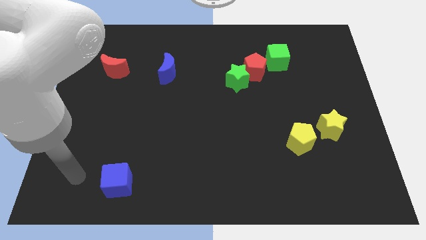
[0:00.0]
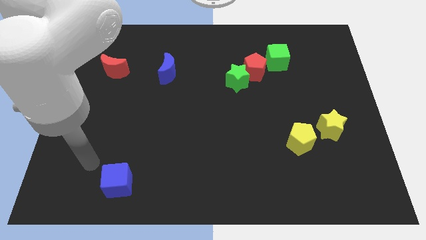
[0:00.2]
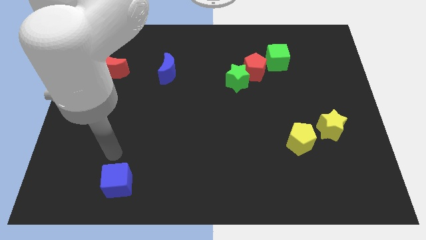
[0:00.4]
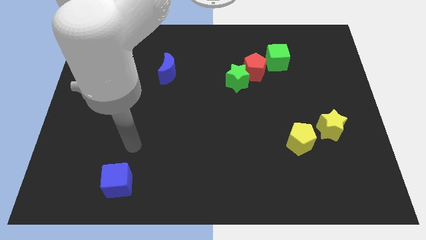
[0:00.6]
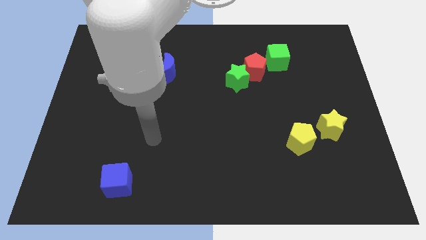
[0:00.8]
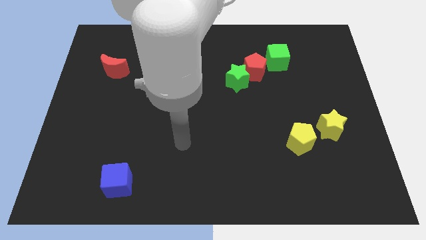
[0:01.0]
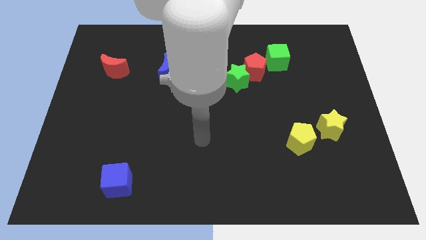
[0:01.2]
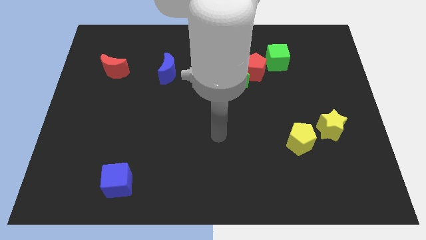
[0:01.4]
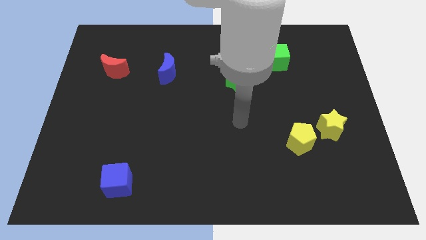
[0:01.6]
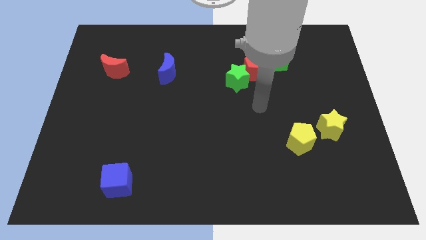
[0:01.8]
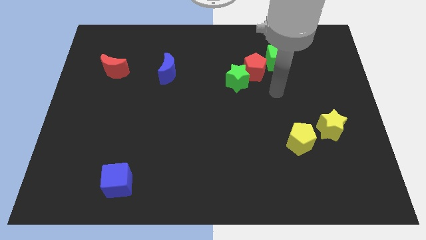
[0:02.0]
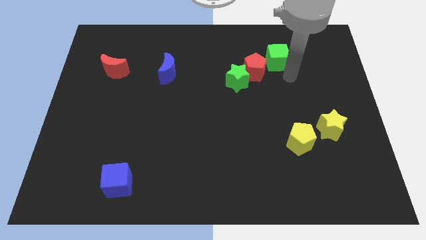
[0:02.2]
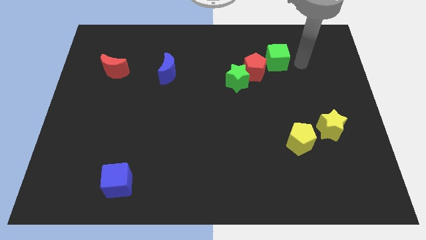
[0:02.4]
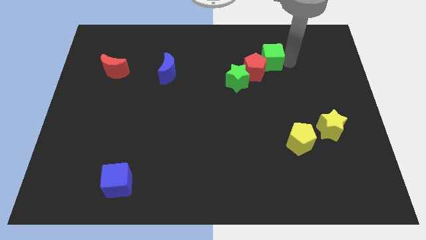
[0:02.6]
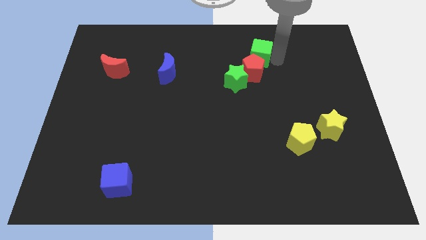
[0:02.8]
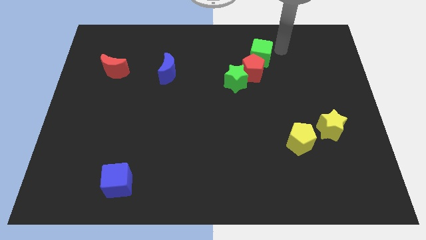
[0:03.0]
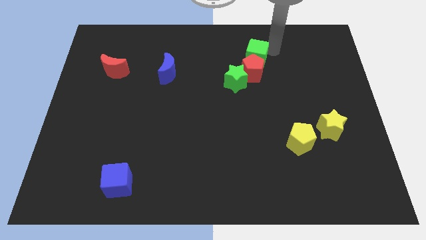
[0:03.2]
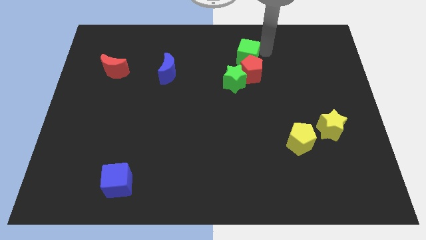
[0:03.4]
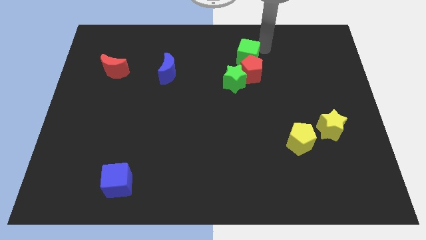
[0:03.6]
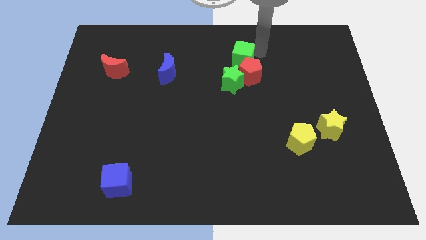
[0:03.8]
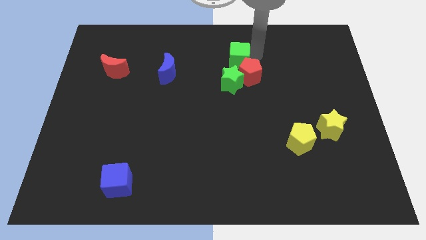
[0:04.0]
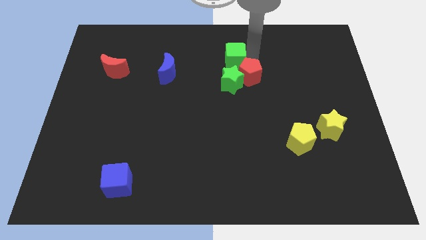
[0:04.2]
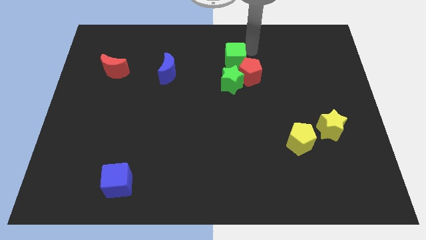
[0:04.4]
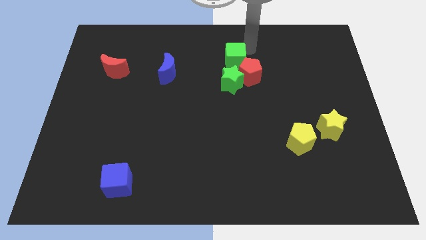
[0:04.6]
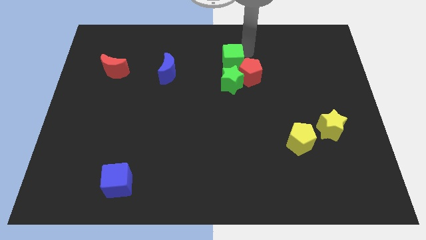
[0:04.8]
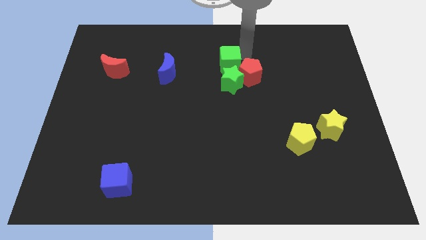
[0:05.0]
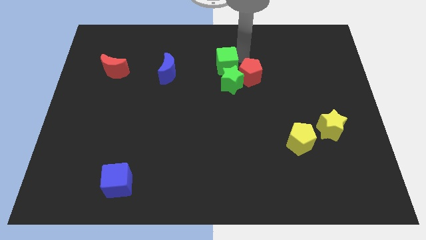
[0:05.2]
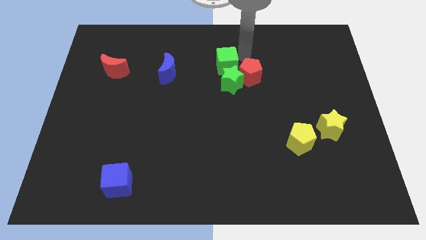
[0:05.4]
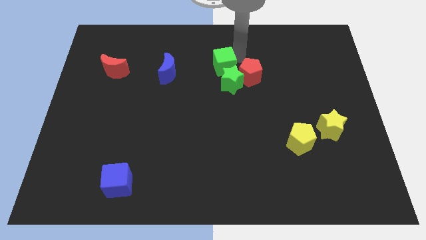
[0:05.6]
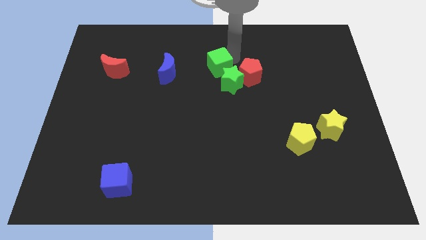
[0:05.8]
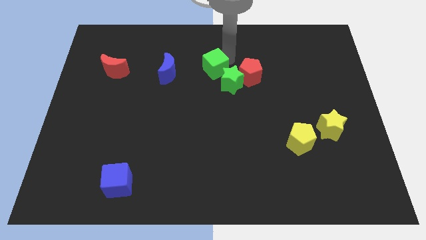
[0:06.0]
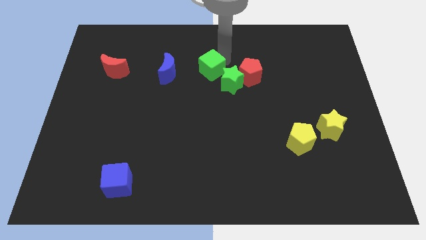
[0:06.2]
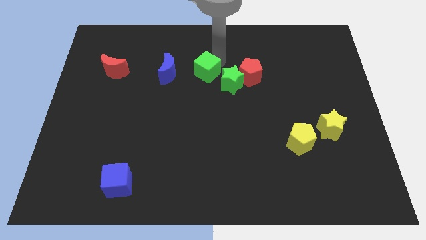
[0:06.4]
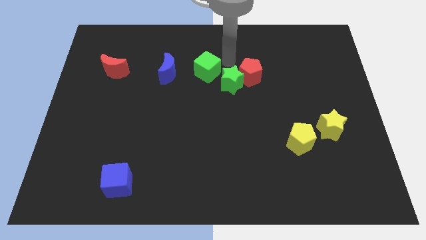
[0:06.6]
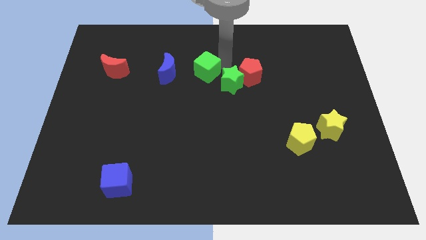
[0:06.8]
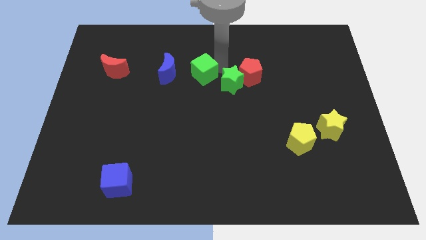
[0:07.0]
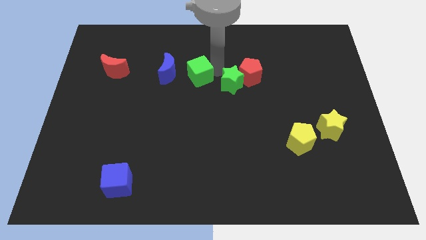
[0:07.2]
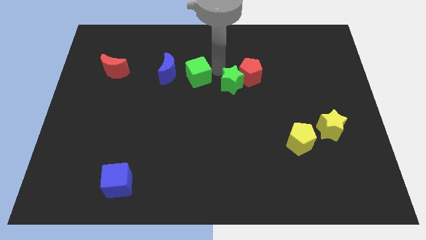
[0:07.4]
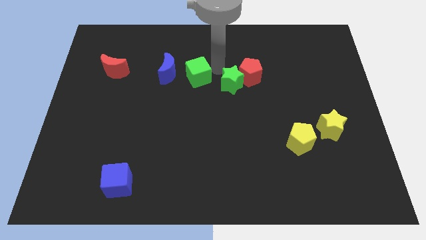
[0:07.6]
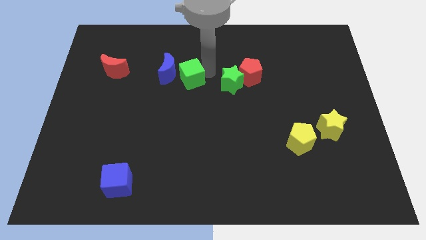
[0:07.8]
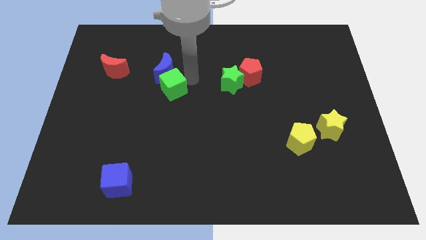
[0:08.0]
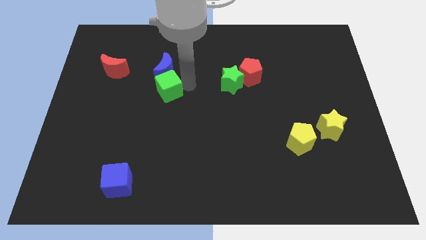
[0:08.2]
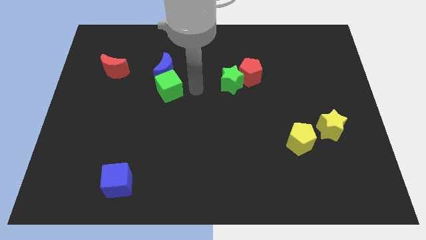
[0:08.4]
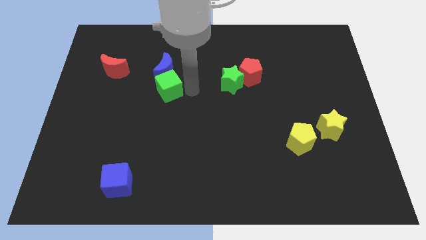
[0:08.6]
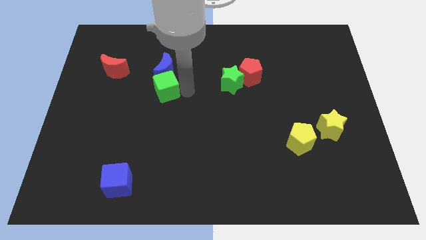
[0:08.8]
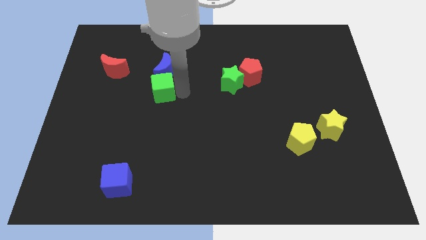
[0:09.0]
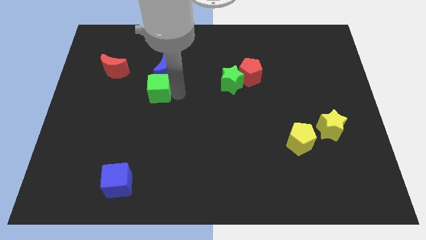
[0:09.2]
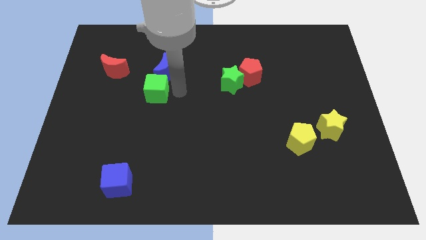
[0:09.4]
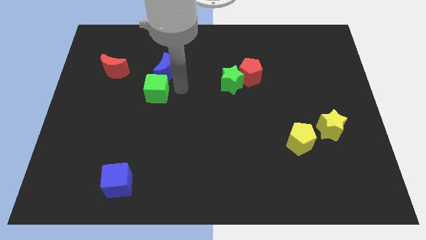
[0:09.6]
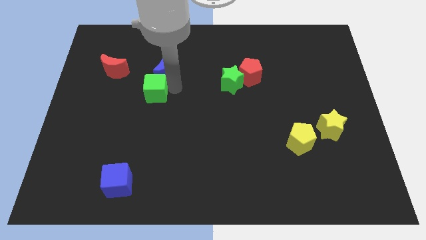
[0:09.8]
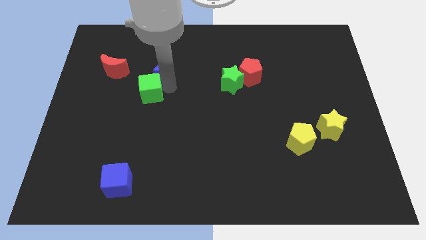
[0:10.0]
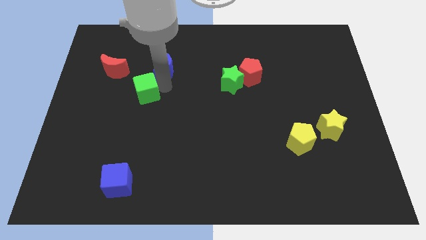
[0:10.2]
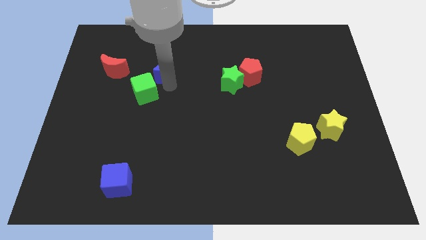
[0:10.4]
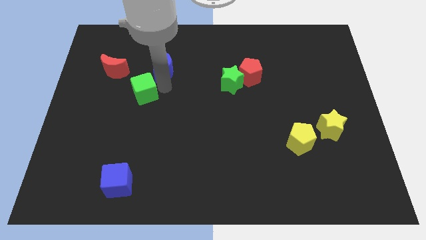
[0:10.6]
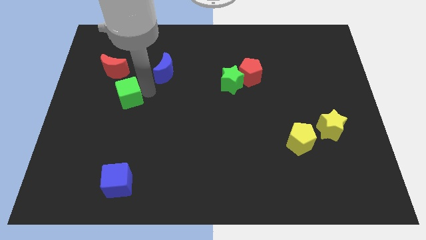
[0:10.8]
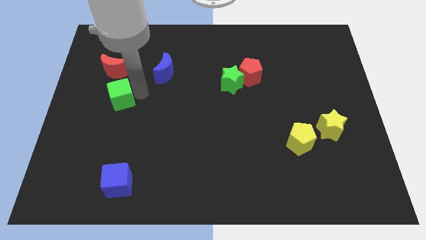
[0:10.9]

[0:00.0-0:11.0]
move the green cube below the red moon

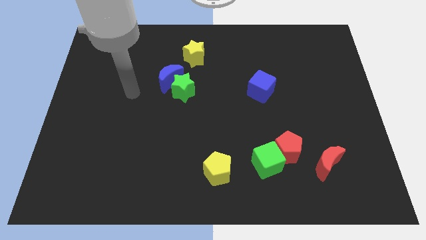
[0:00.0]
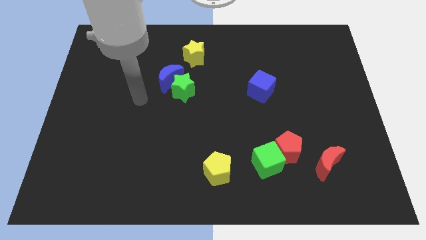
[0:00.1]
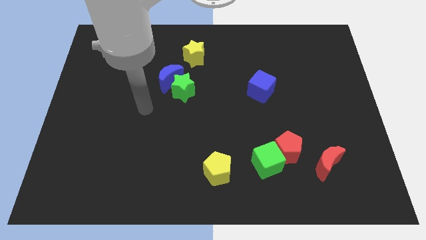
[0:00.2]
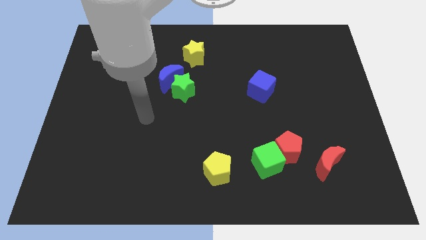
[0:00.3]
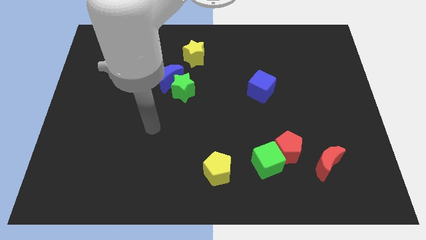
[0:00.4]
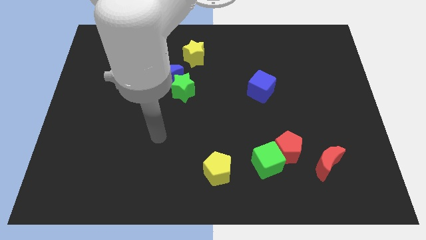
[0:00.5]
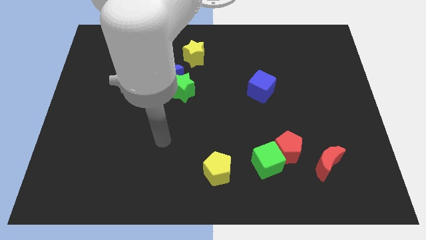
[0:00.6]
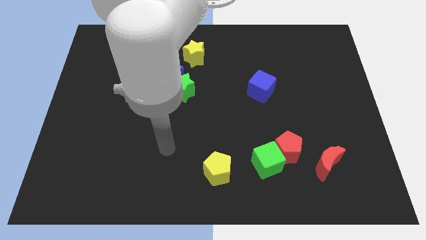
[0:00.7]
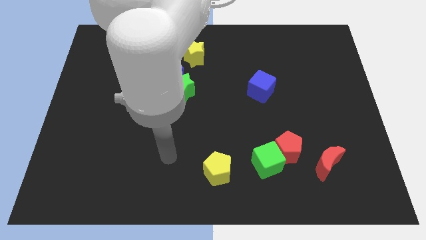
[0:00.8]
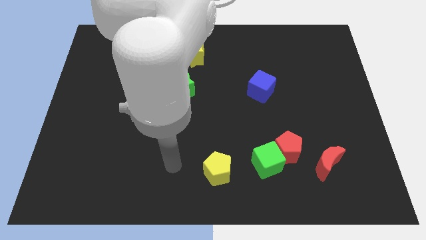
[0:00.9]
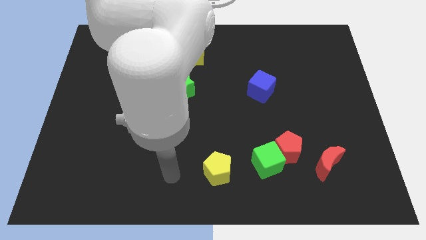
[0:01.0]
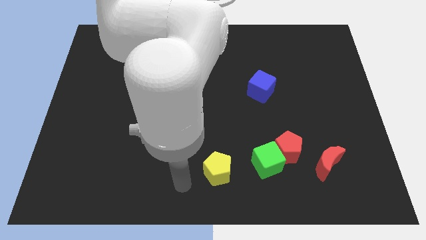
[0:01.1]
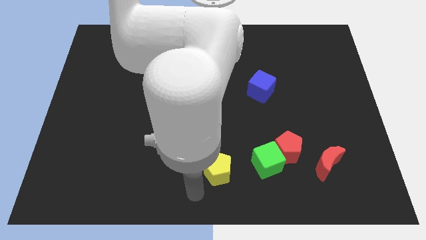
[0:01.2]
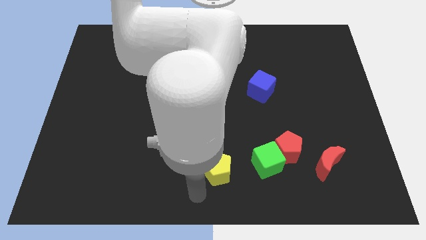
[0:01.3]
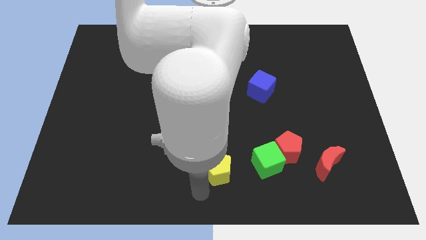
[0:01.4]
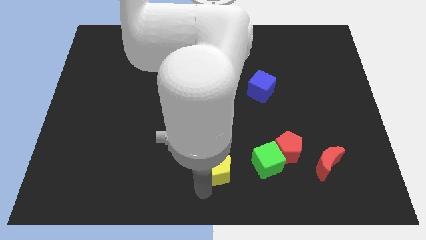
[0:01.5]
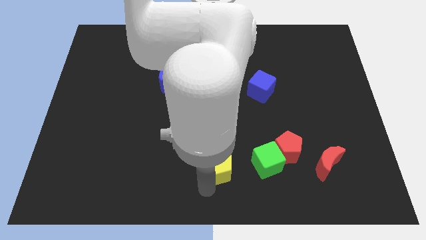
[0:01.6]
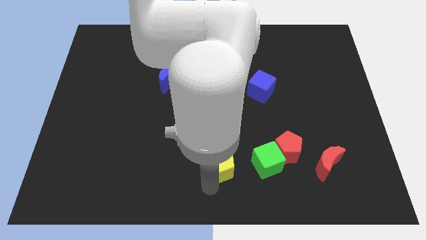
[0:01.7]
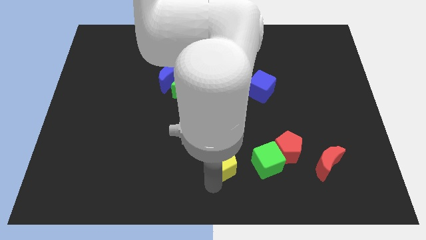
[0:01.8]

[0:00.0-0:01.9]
move the yellow pentagon to the left of the red pentagon
